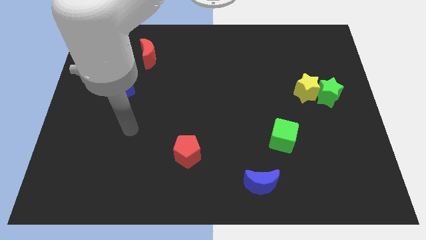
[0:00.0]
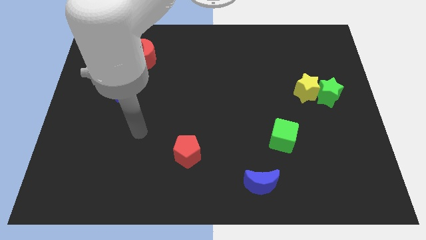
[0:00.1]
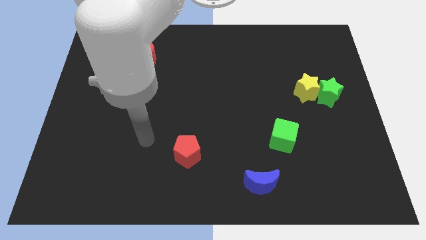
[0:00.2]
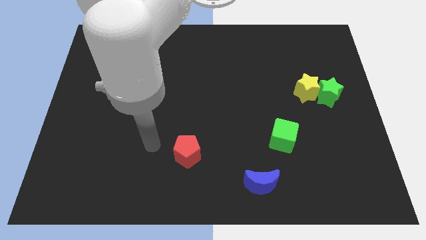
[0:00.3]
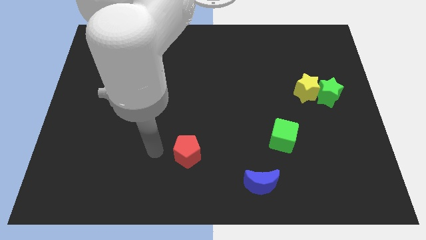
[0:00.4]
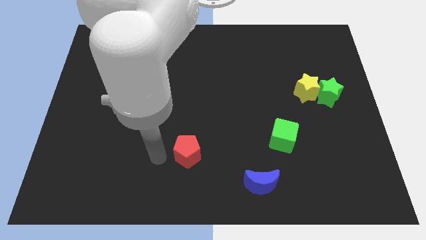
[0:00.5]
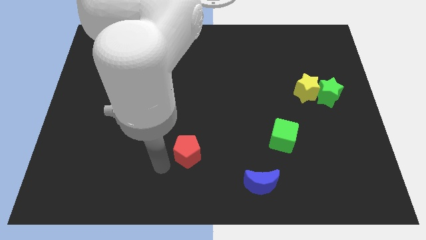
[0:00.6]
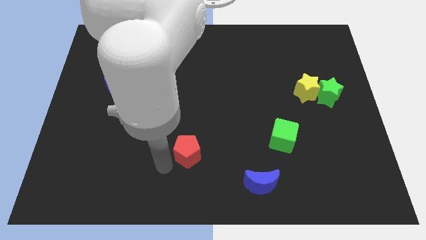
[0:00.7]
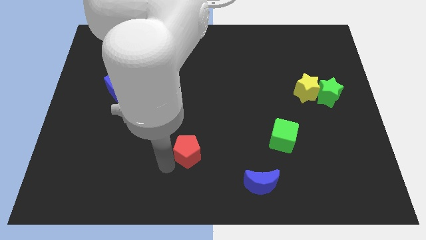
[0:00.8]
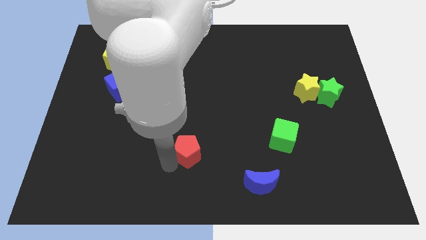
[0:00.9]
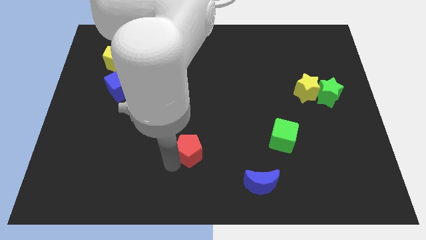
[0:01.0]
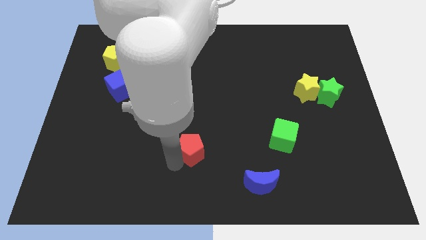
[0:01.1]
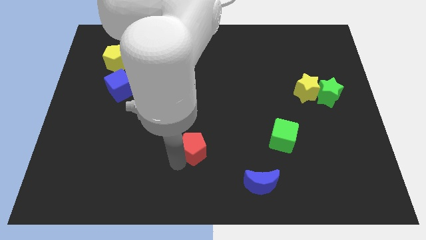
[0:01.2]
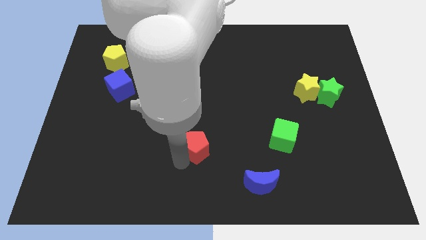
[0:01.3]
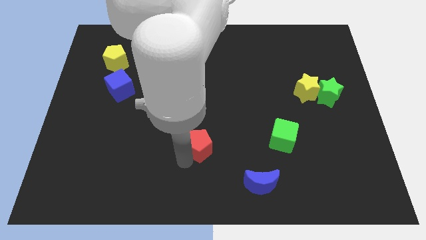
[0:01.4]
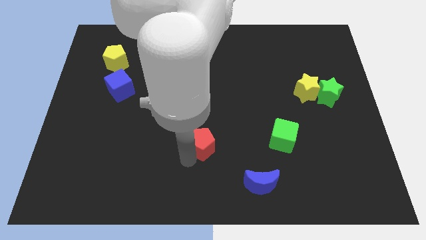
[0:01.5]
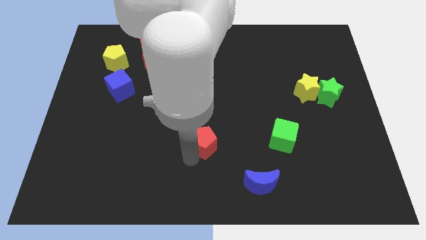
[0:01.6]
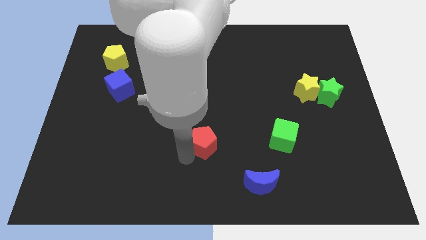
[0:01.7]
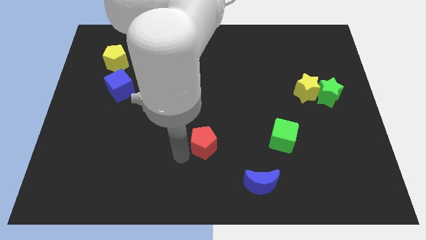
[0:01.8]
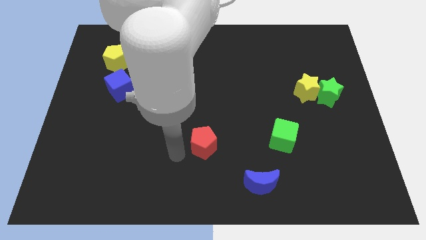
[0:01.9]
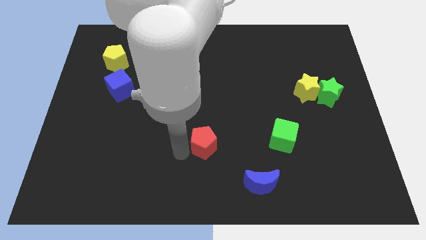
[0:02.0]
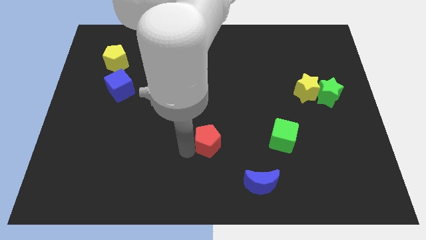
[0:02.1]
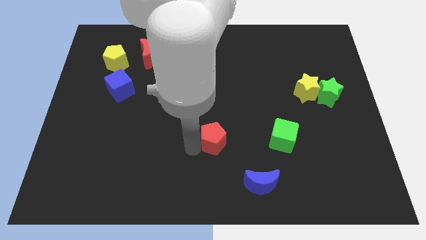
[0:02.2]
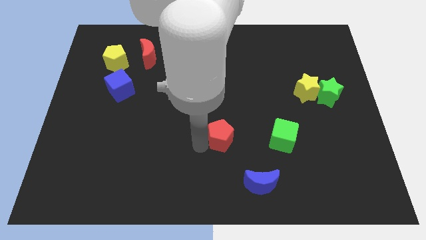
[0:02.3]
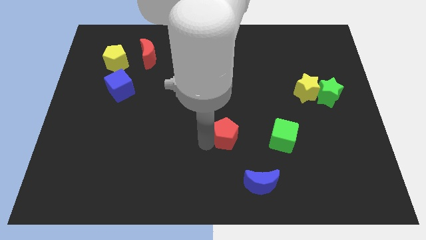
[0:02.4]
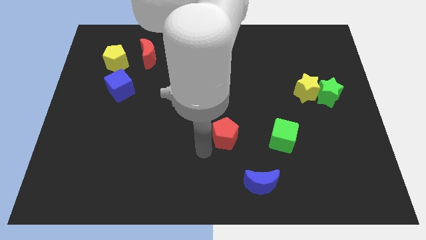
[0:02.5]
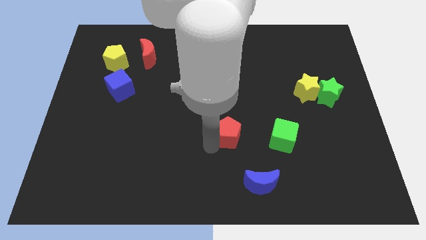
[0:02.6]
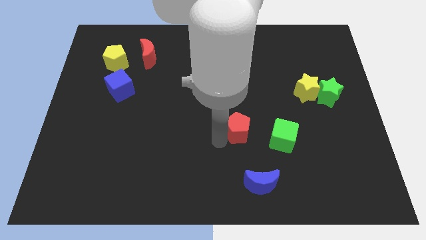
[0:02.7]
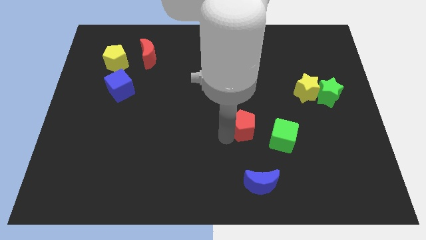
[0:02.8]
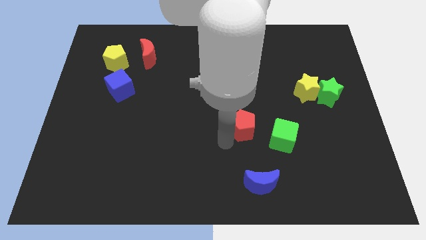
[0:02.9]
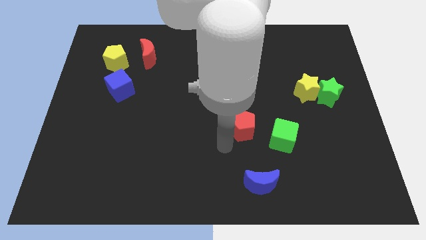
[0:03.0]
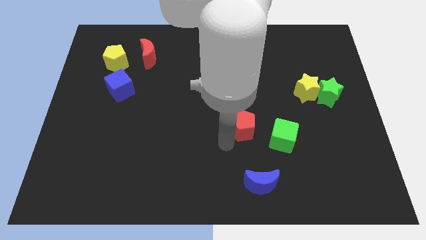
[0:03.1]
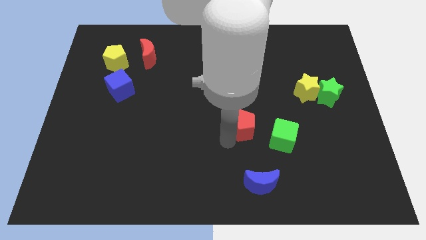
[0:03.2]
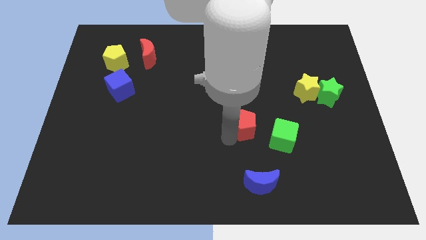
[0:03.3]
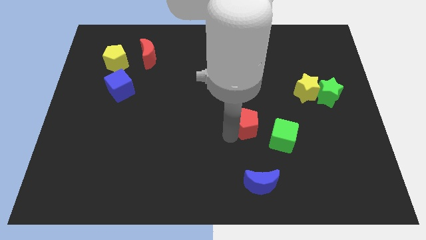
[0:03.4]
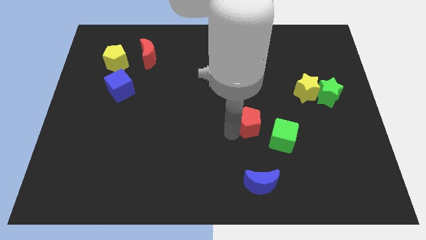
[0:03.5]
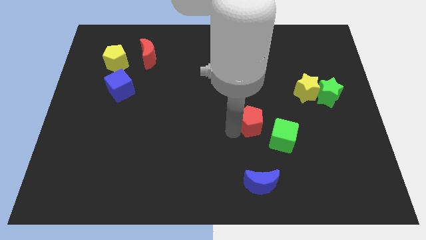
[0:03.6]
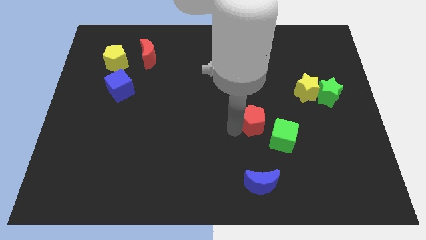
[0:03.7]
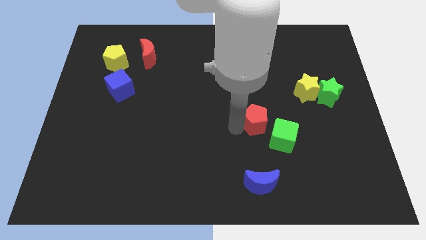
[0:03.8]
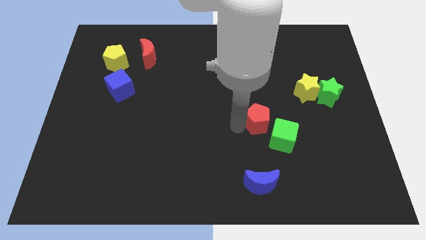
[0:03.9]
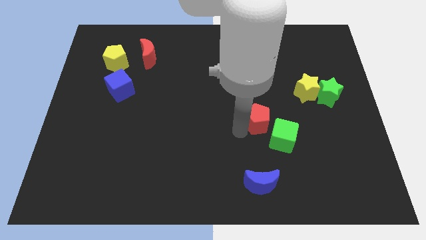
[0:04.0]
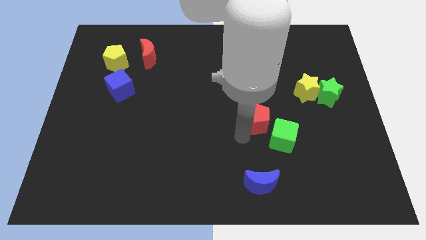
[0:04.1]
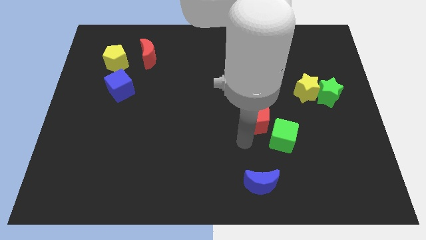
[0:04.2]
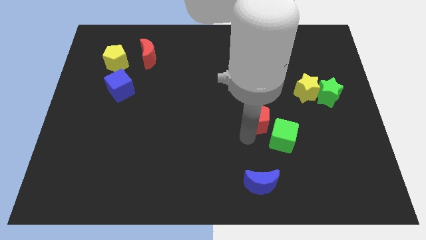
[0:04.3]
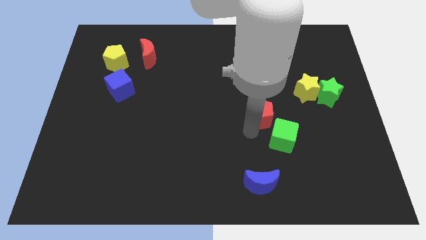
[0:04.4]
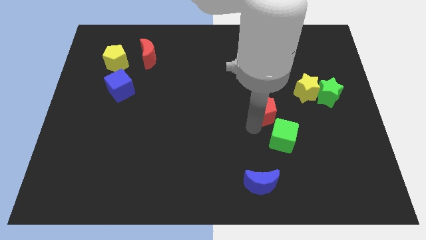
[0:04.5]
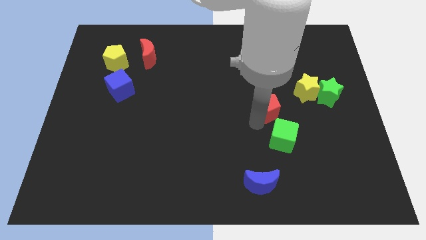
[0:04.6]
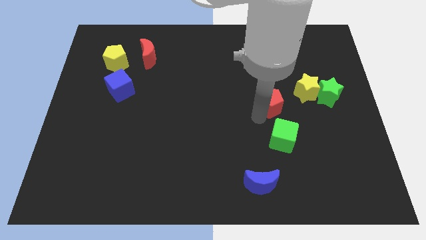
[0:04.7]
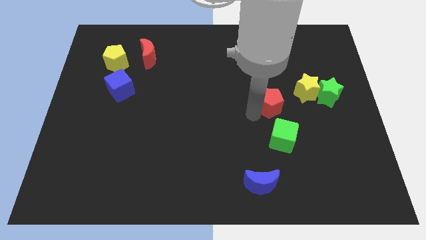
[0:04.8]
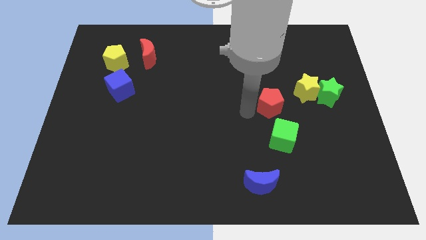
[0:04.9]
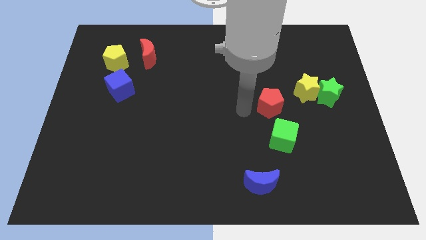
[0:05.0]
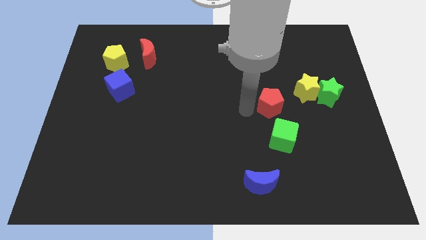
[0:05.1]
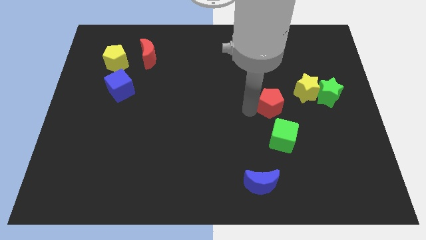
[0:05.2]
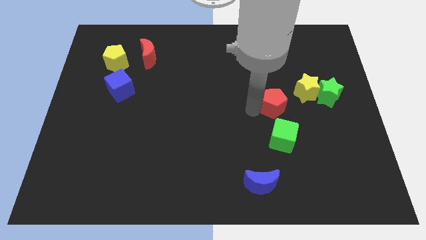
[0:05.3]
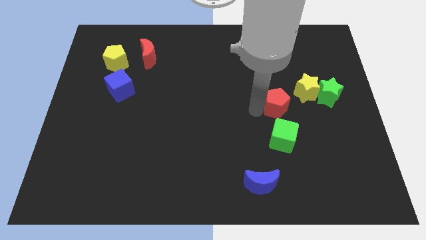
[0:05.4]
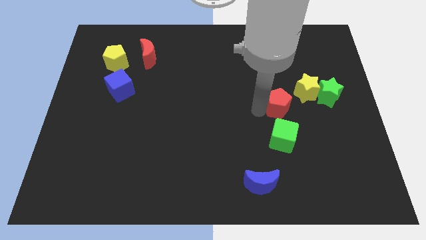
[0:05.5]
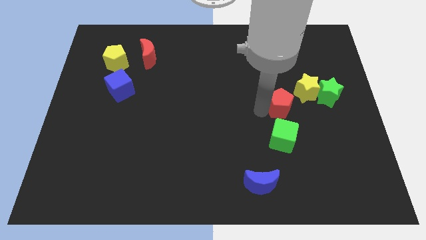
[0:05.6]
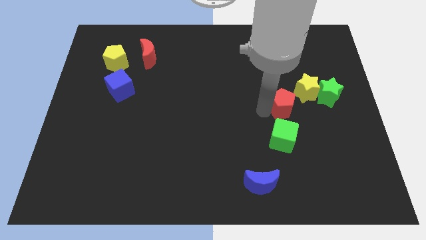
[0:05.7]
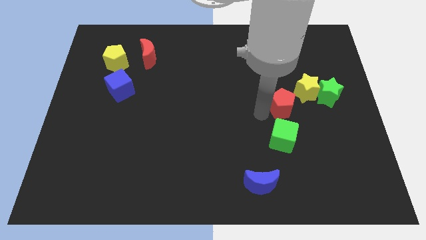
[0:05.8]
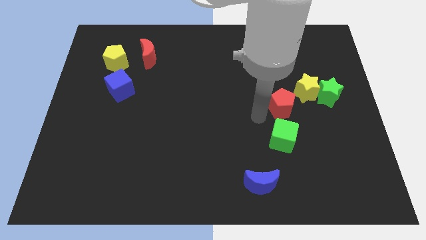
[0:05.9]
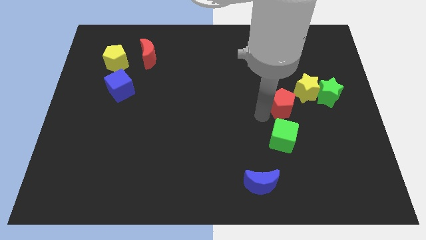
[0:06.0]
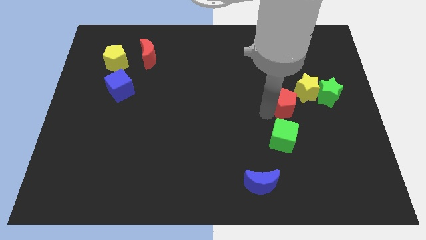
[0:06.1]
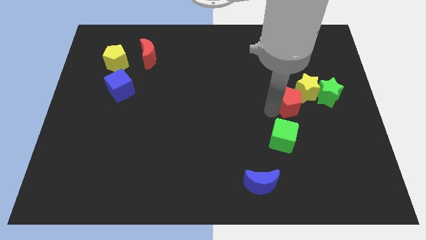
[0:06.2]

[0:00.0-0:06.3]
push the red pentagon next to the yellow star

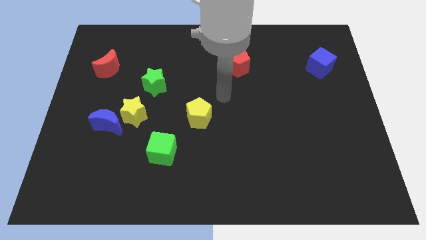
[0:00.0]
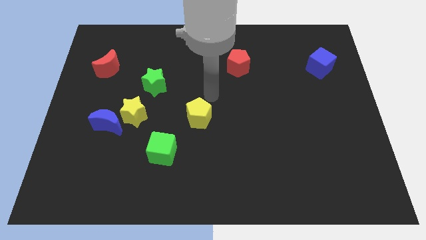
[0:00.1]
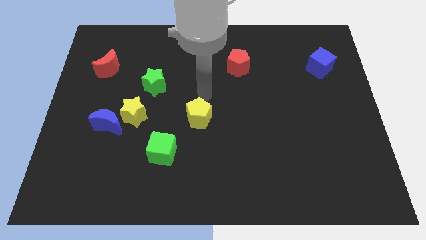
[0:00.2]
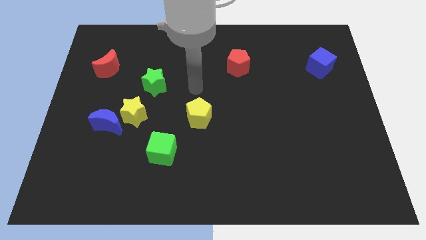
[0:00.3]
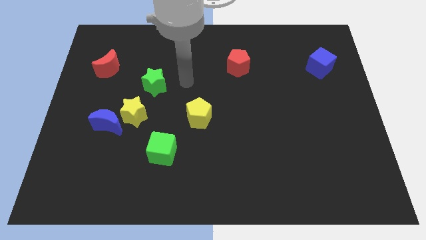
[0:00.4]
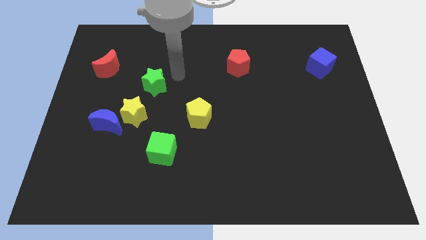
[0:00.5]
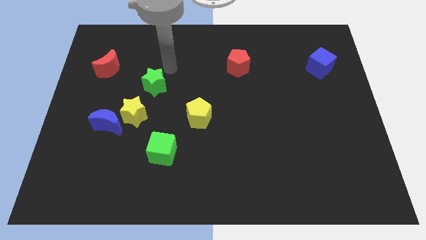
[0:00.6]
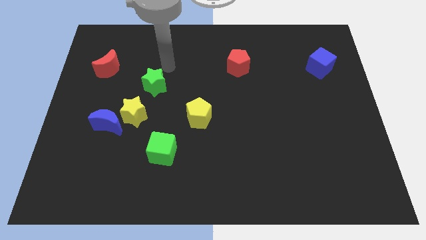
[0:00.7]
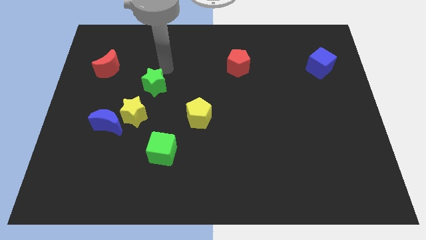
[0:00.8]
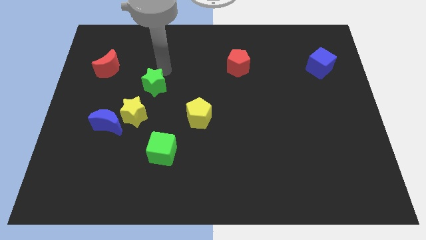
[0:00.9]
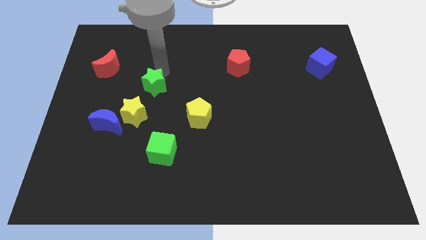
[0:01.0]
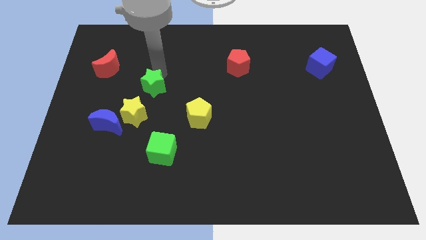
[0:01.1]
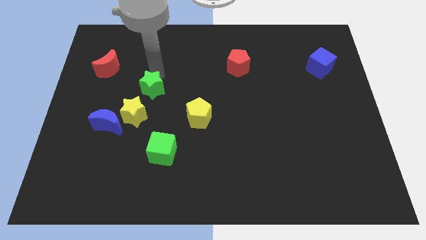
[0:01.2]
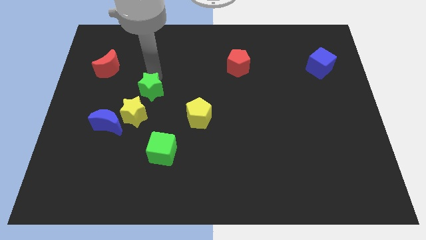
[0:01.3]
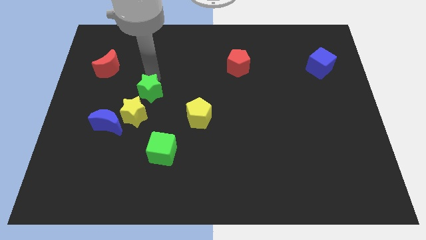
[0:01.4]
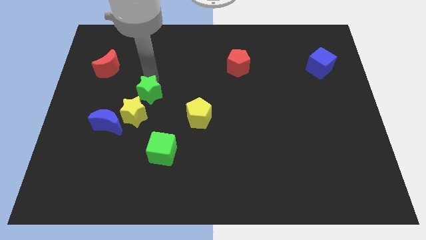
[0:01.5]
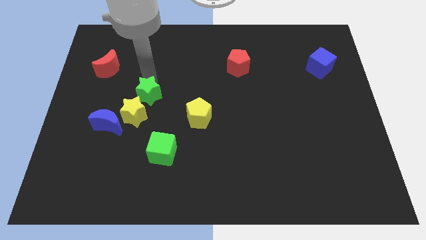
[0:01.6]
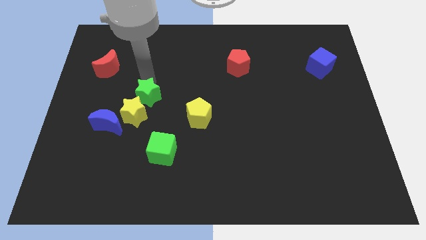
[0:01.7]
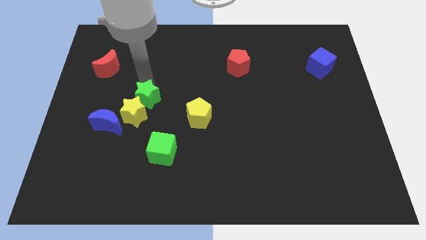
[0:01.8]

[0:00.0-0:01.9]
move the green star close to the yellow star
